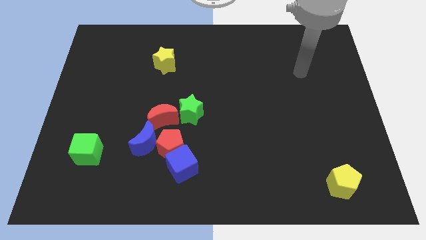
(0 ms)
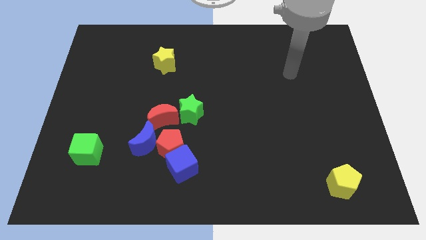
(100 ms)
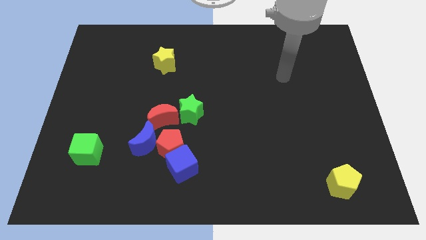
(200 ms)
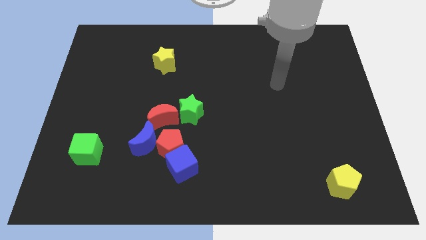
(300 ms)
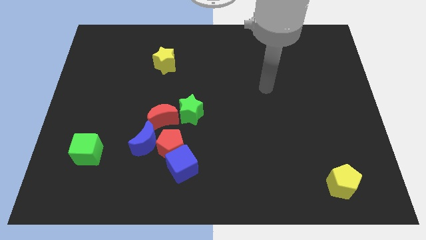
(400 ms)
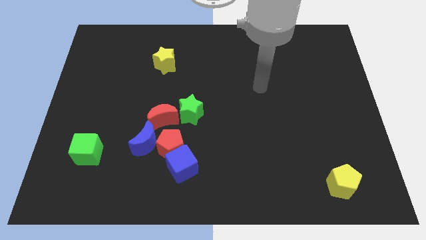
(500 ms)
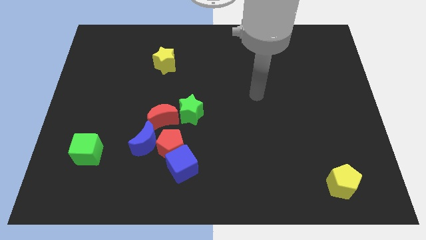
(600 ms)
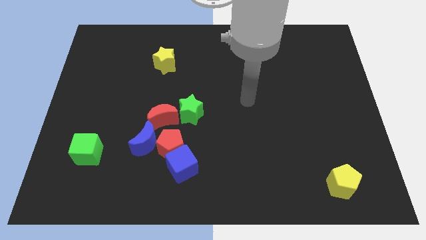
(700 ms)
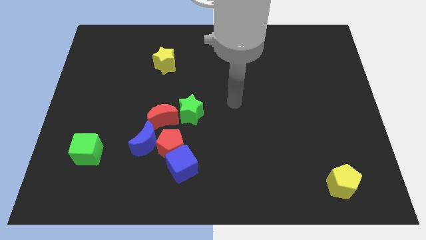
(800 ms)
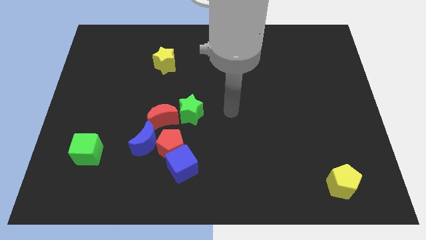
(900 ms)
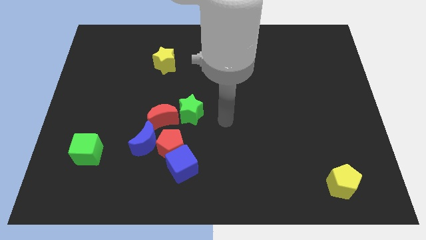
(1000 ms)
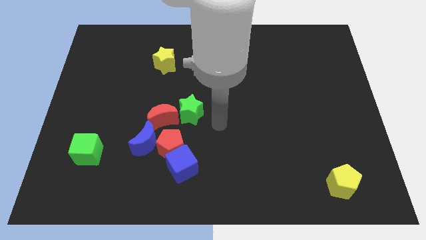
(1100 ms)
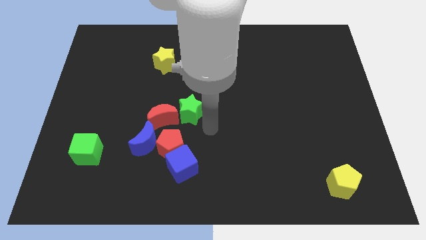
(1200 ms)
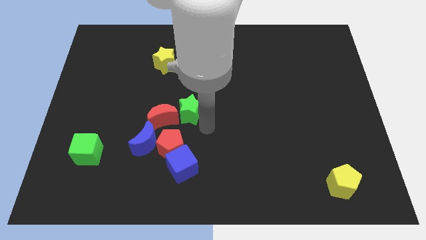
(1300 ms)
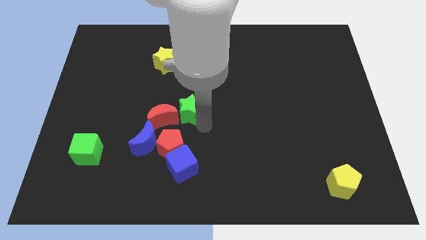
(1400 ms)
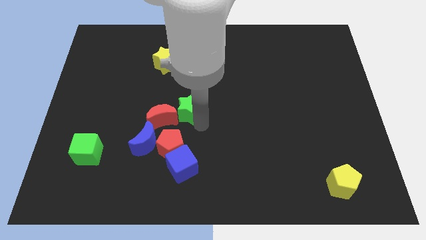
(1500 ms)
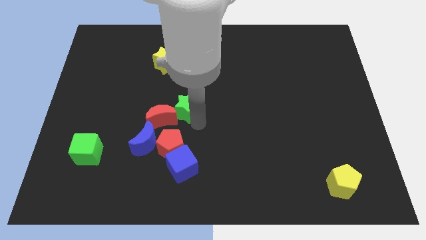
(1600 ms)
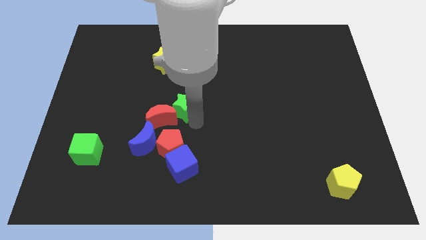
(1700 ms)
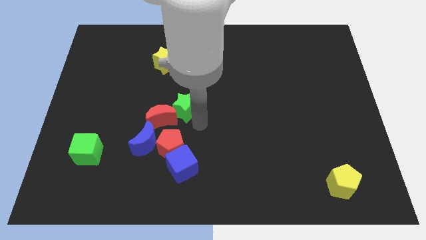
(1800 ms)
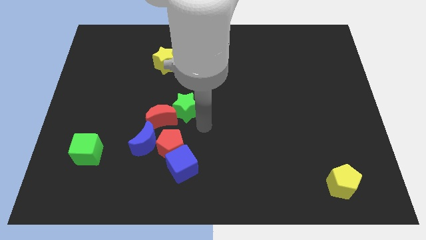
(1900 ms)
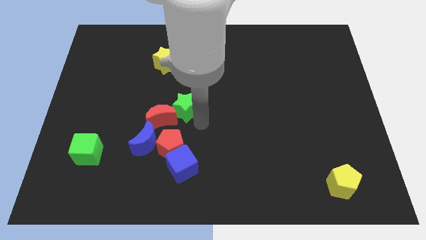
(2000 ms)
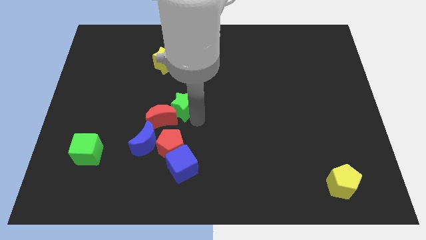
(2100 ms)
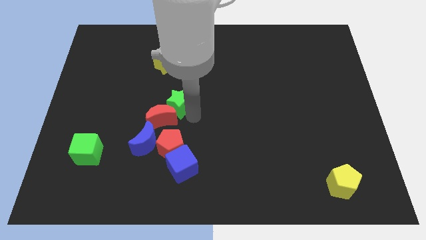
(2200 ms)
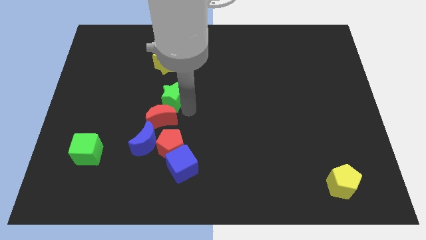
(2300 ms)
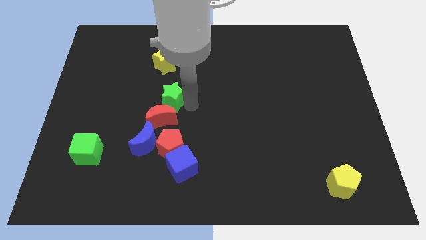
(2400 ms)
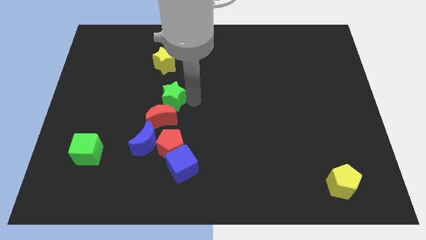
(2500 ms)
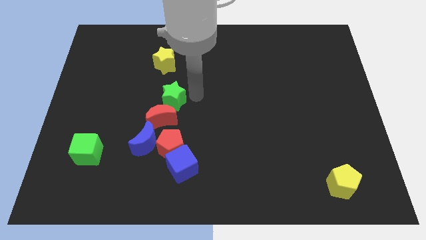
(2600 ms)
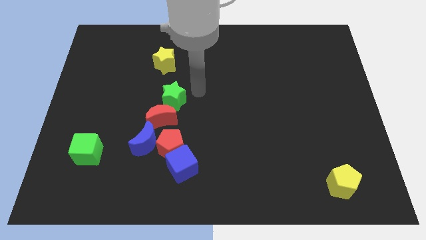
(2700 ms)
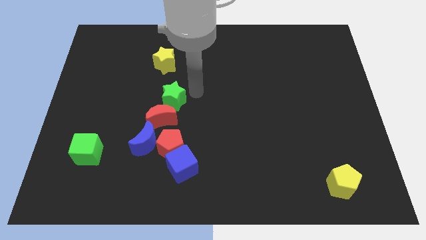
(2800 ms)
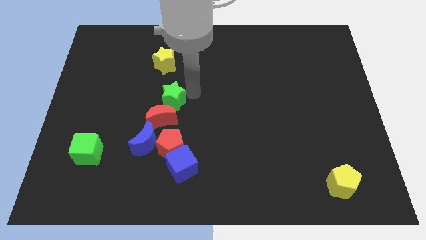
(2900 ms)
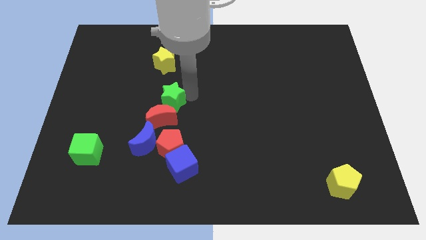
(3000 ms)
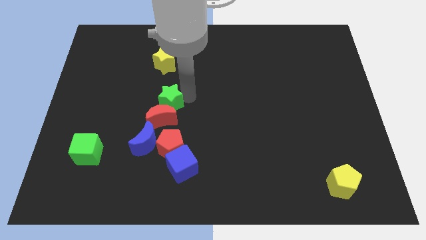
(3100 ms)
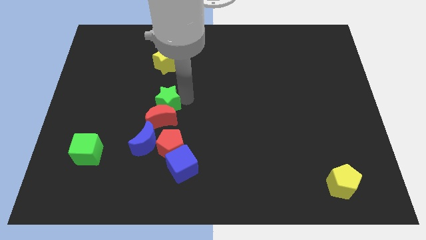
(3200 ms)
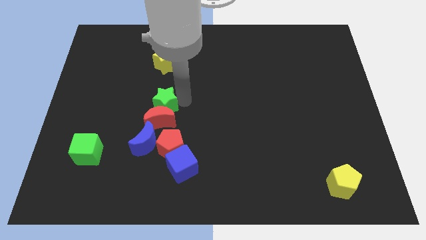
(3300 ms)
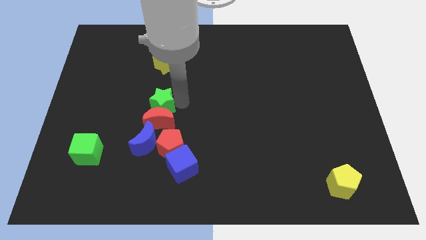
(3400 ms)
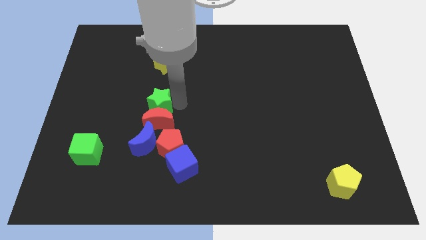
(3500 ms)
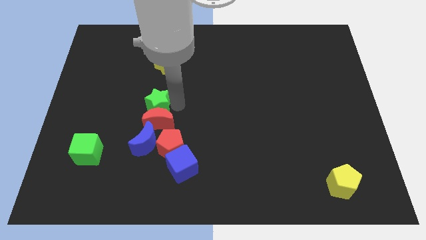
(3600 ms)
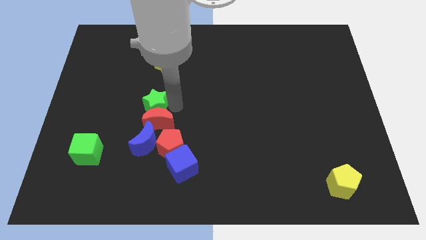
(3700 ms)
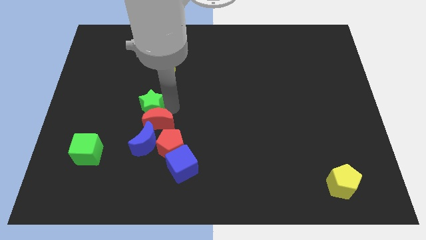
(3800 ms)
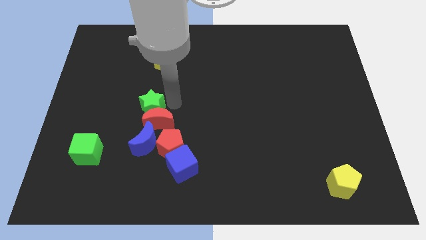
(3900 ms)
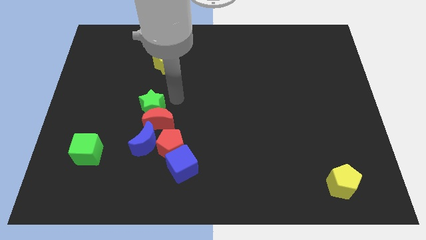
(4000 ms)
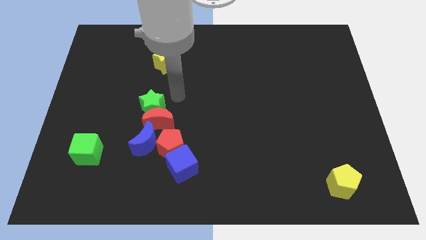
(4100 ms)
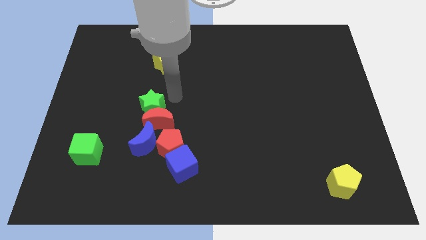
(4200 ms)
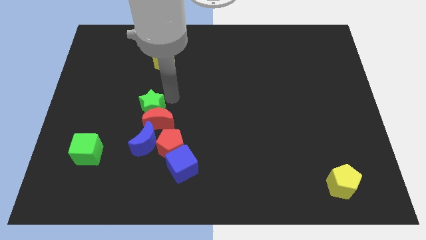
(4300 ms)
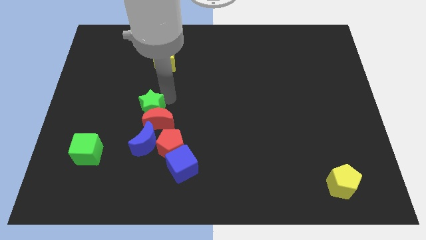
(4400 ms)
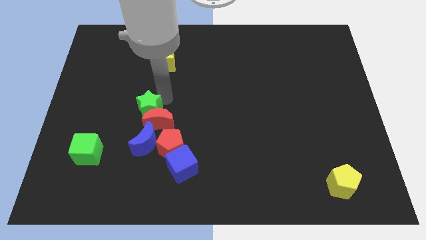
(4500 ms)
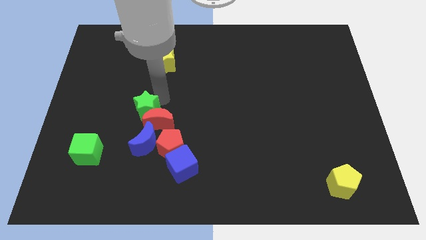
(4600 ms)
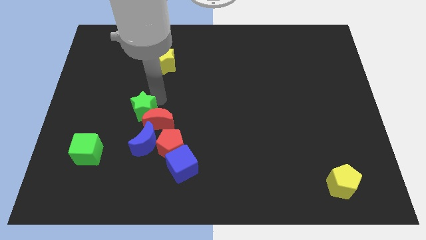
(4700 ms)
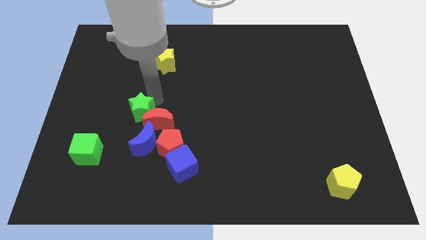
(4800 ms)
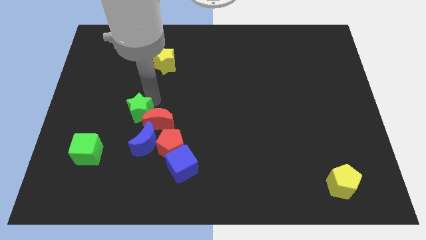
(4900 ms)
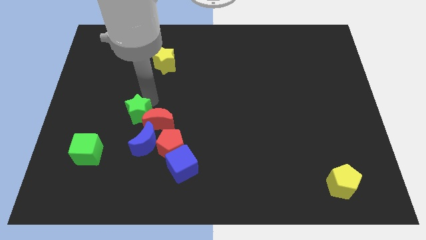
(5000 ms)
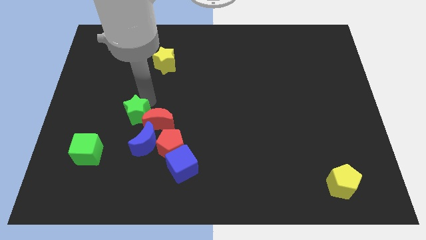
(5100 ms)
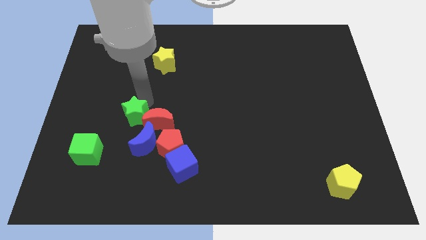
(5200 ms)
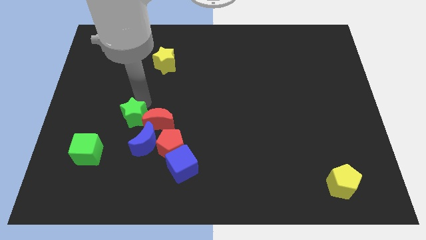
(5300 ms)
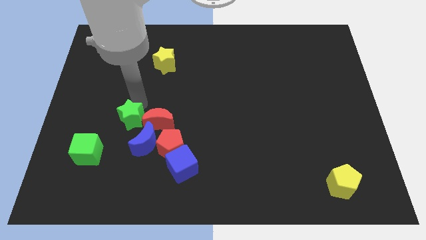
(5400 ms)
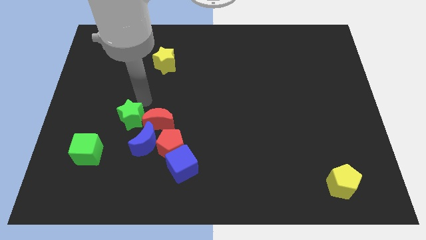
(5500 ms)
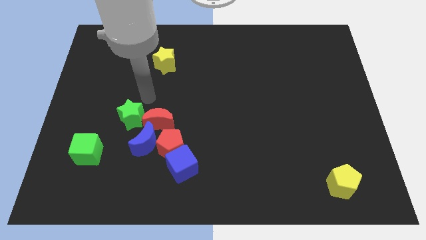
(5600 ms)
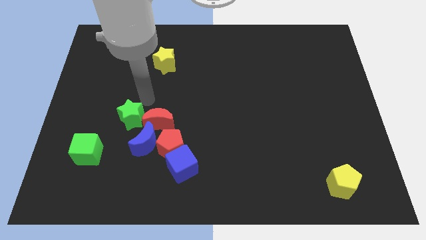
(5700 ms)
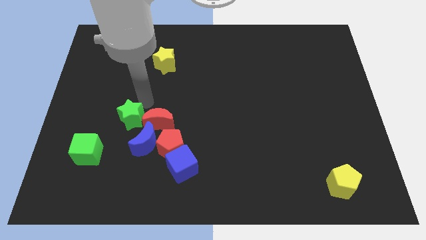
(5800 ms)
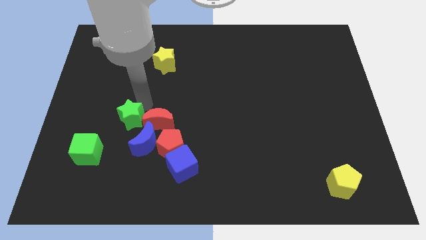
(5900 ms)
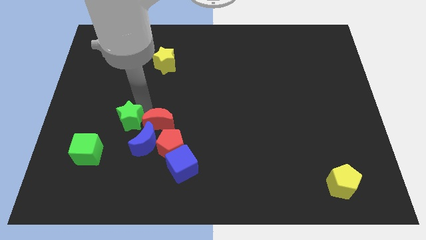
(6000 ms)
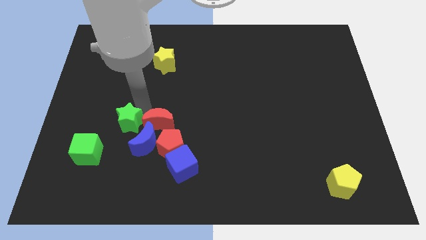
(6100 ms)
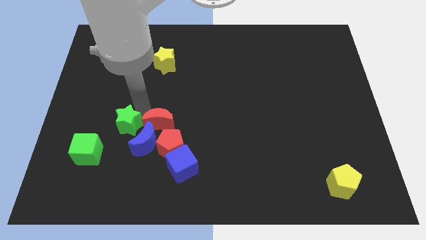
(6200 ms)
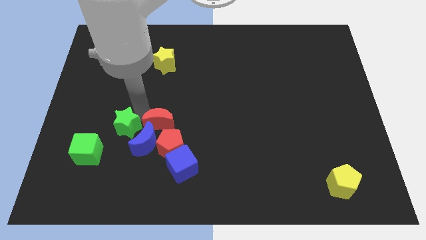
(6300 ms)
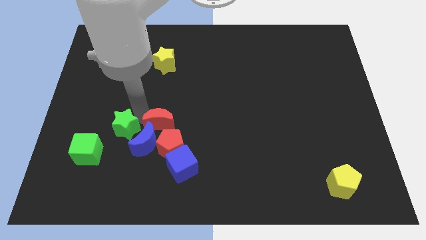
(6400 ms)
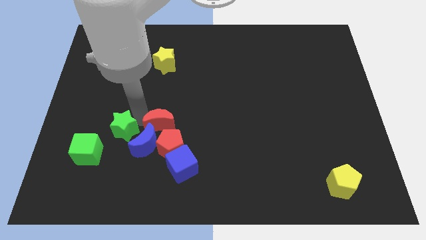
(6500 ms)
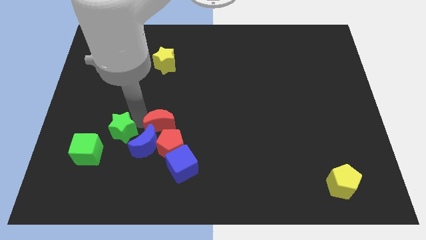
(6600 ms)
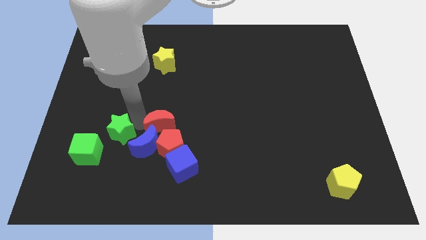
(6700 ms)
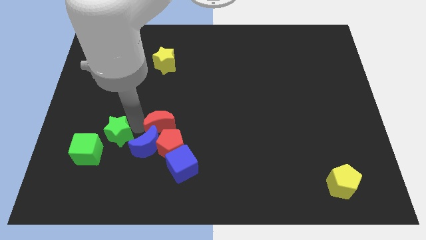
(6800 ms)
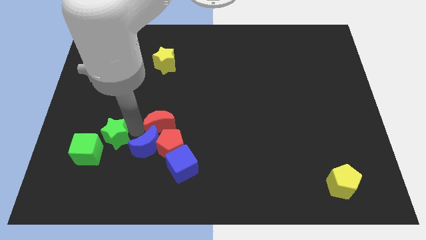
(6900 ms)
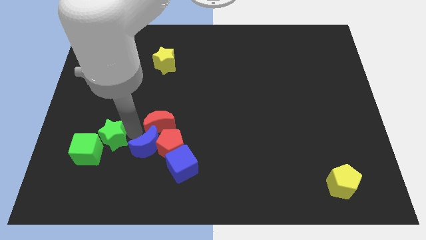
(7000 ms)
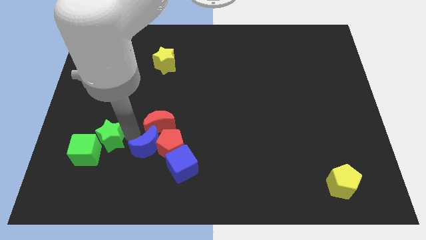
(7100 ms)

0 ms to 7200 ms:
put the green star to the green cube

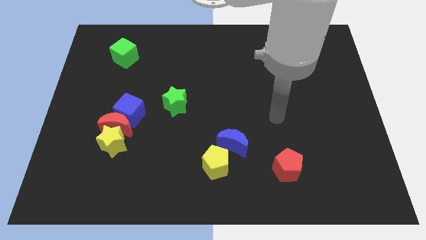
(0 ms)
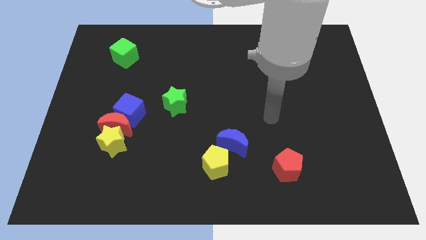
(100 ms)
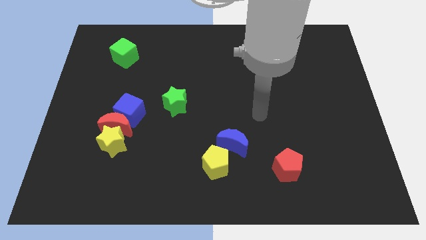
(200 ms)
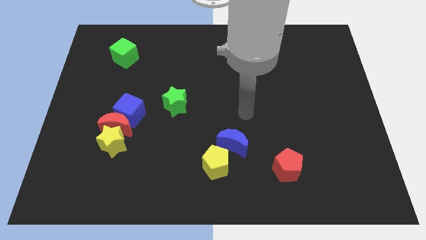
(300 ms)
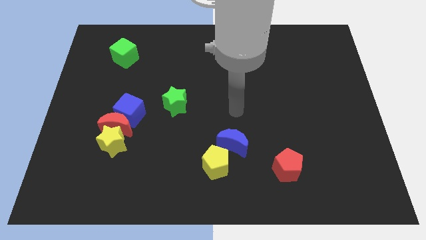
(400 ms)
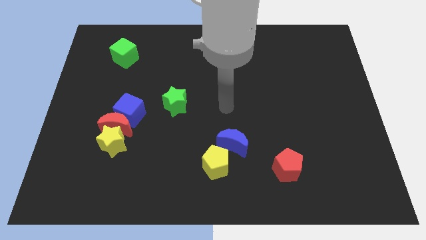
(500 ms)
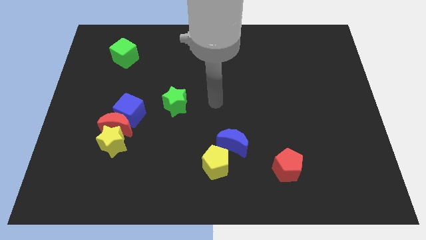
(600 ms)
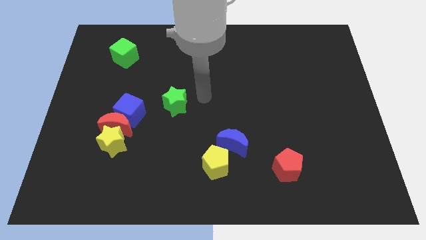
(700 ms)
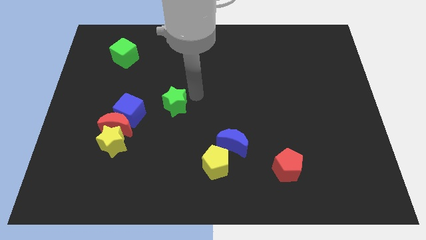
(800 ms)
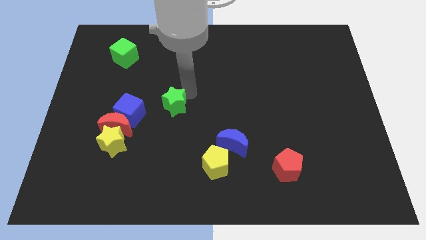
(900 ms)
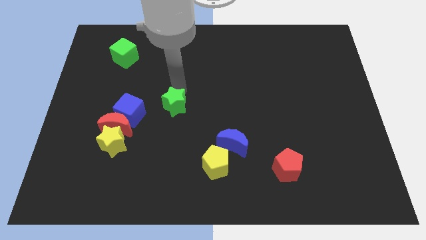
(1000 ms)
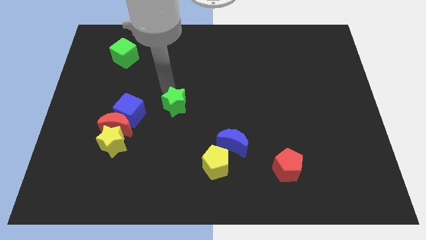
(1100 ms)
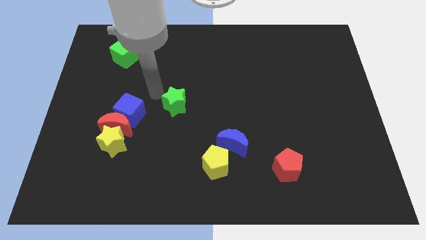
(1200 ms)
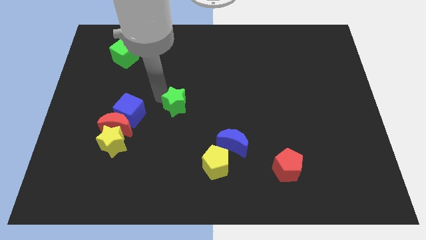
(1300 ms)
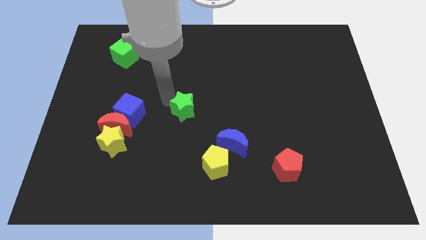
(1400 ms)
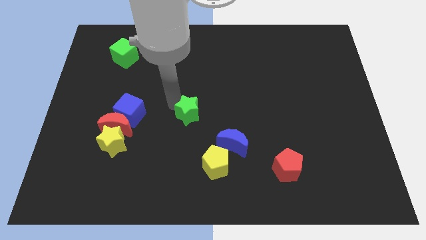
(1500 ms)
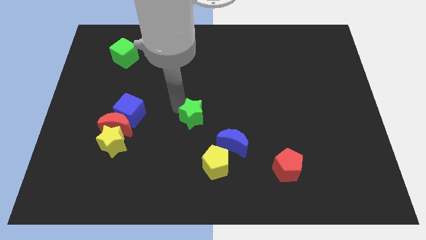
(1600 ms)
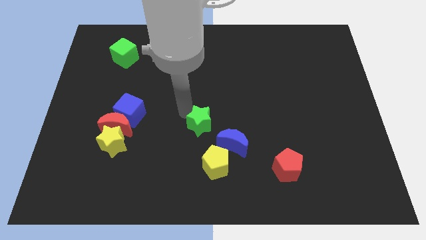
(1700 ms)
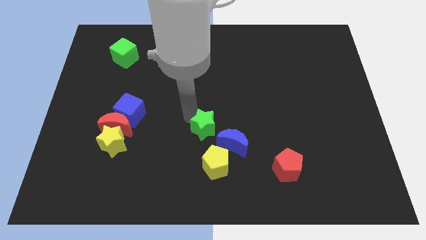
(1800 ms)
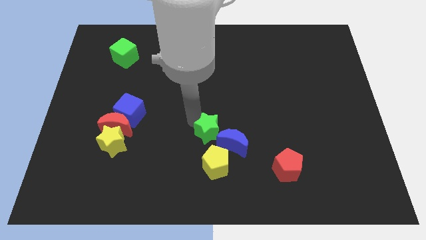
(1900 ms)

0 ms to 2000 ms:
move the green star next to the blue moon
